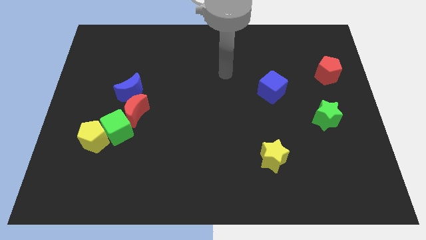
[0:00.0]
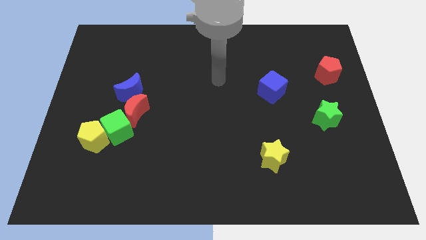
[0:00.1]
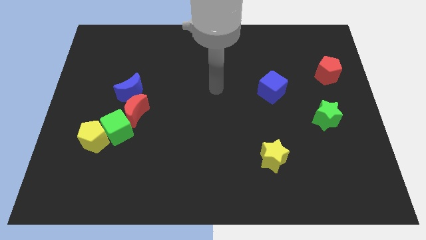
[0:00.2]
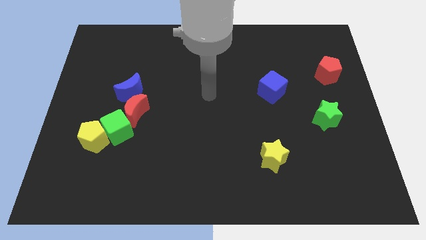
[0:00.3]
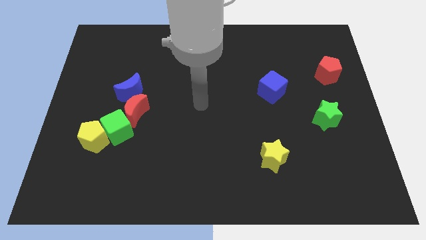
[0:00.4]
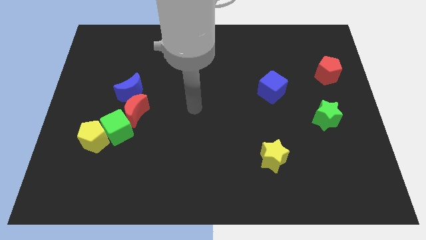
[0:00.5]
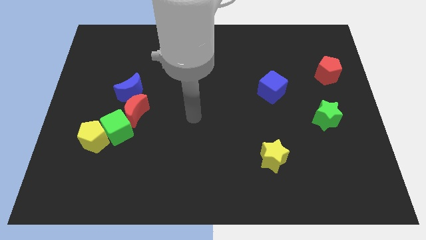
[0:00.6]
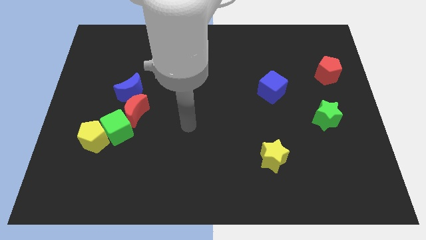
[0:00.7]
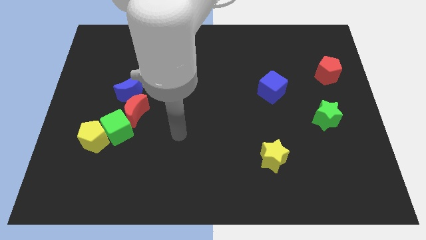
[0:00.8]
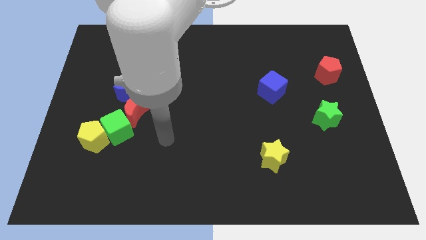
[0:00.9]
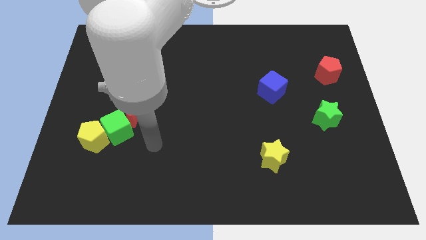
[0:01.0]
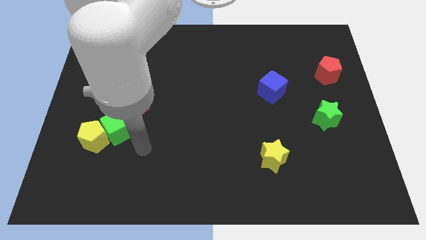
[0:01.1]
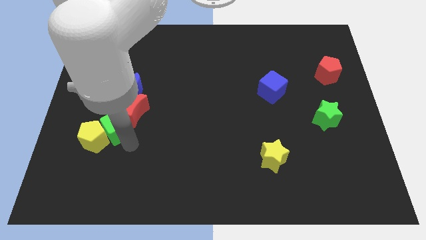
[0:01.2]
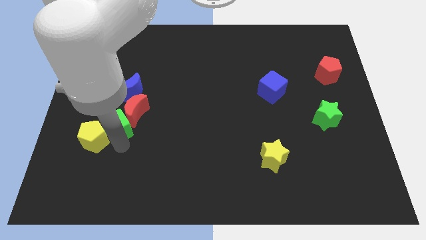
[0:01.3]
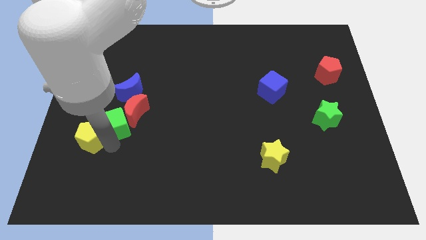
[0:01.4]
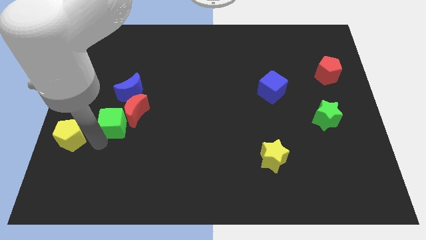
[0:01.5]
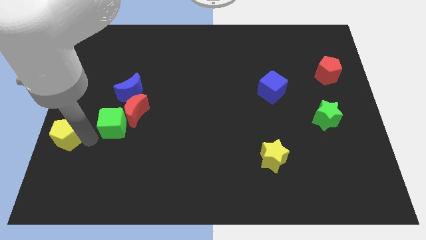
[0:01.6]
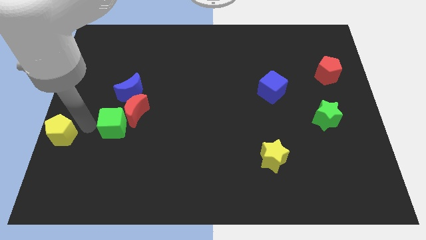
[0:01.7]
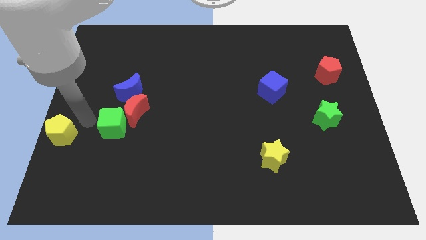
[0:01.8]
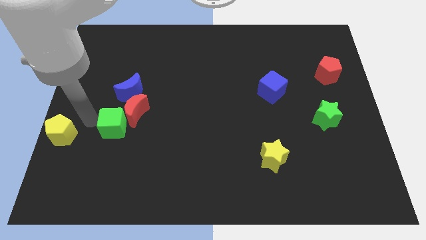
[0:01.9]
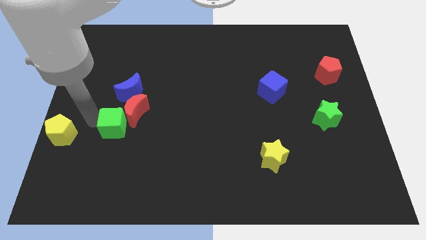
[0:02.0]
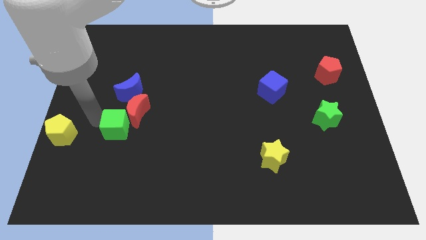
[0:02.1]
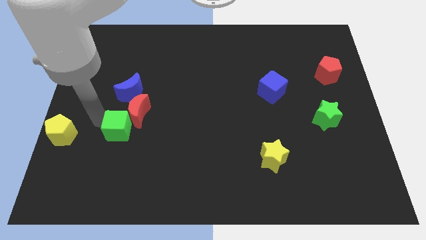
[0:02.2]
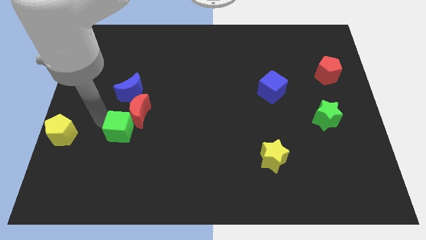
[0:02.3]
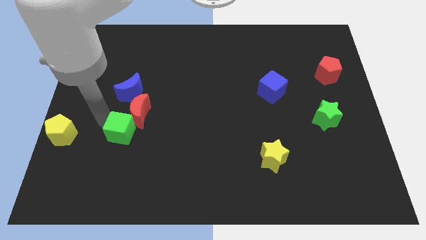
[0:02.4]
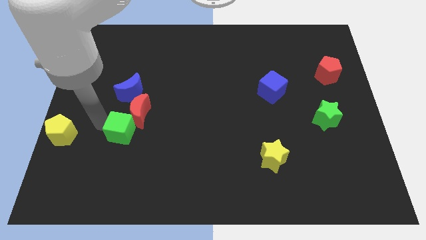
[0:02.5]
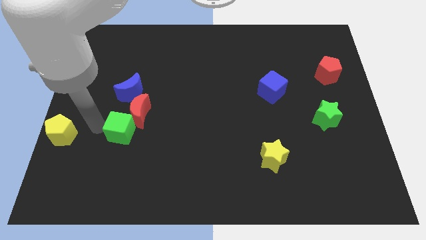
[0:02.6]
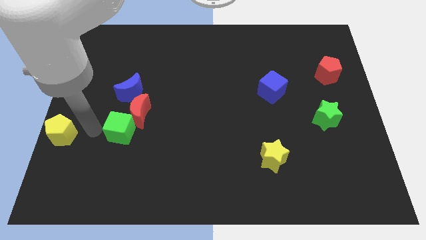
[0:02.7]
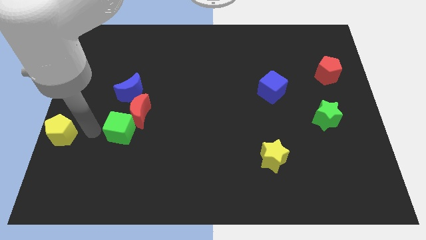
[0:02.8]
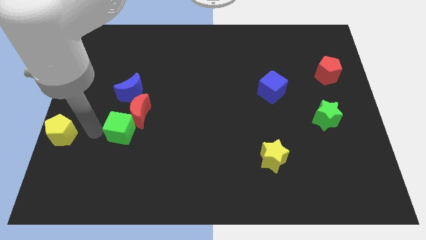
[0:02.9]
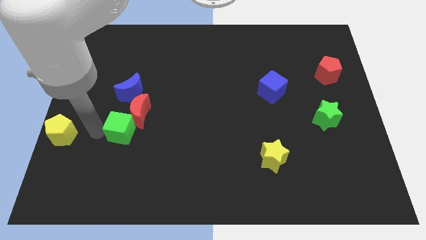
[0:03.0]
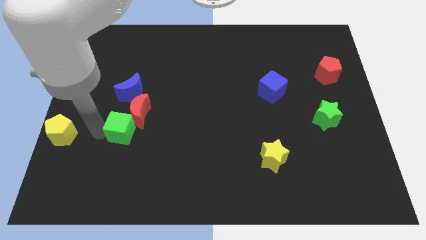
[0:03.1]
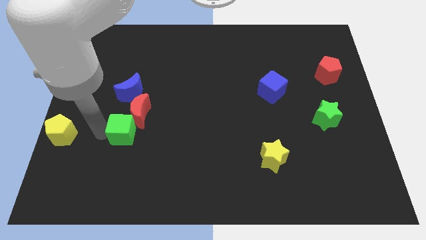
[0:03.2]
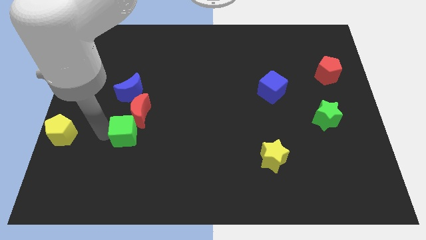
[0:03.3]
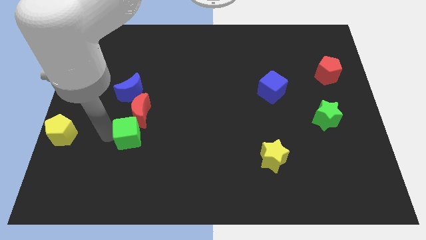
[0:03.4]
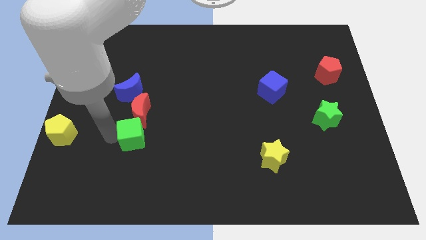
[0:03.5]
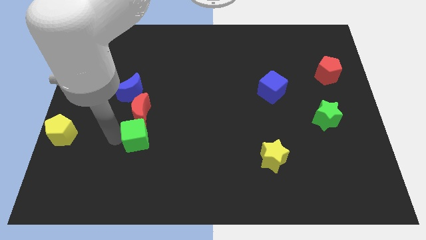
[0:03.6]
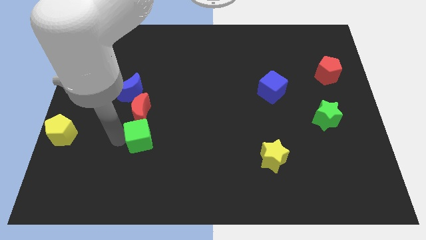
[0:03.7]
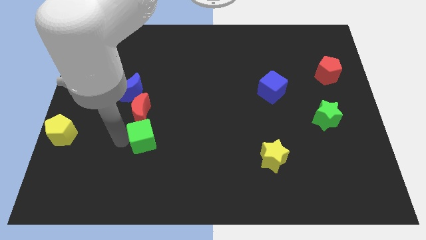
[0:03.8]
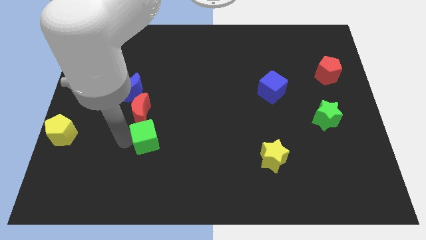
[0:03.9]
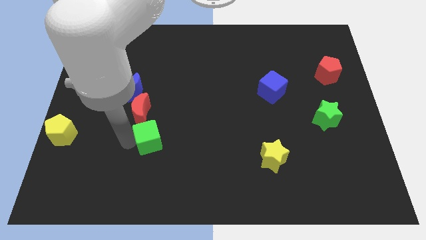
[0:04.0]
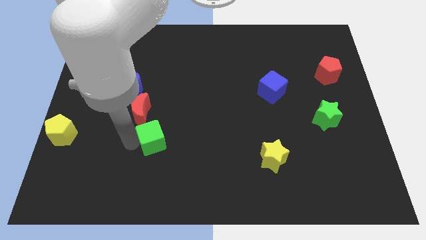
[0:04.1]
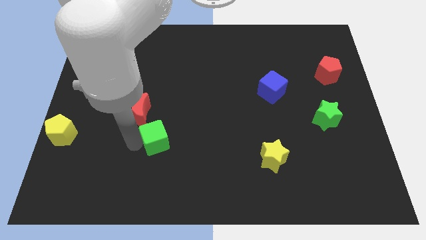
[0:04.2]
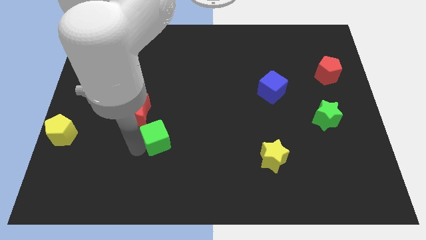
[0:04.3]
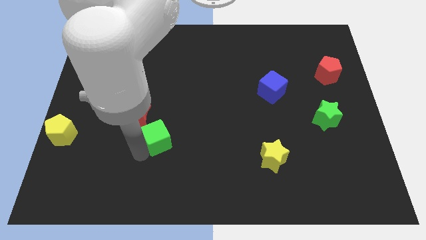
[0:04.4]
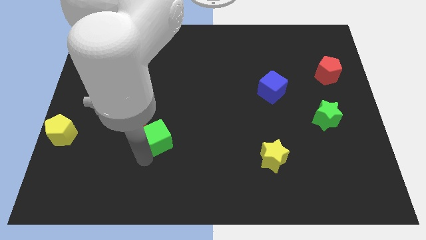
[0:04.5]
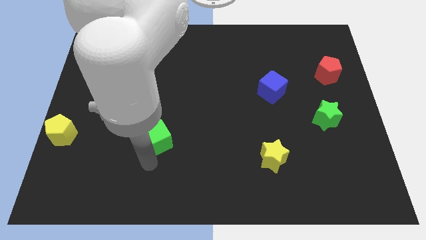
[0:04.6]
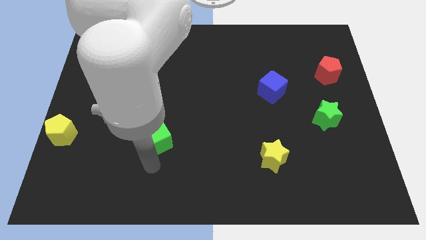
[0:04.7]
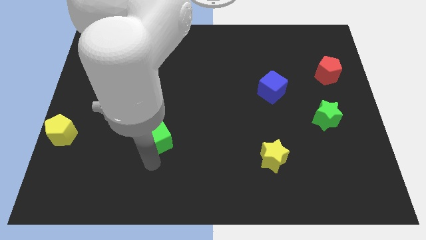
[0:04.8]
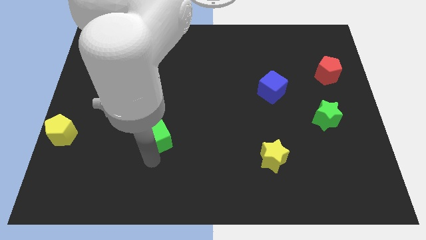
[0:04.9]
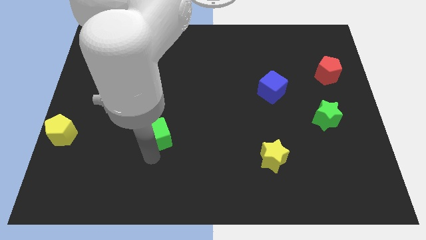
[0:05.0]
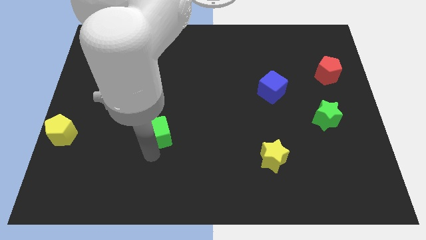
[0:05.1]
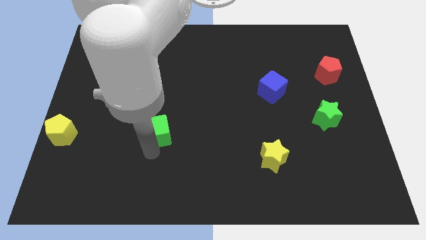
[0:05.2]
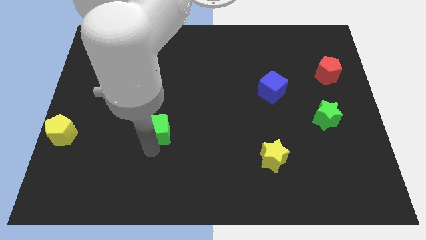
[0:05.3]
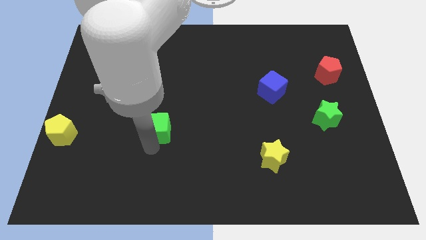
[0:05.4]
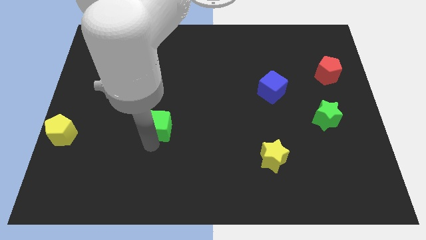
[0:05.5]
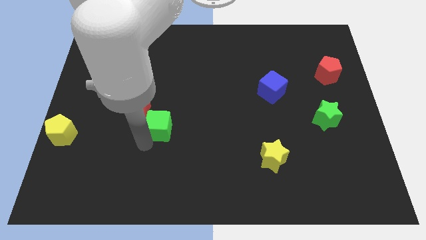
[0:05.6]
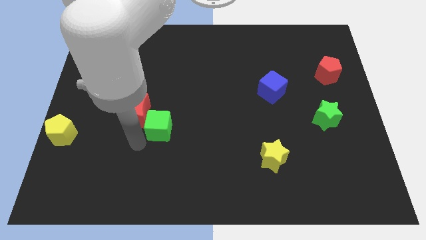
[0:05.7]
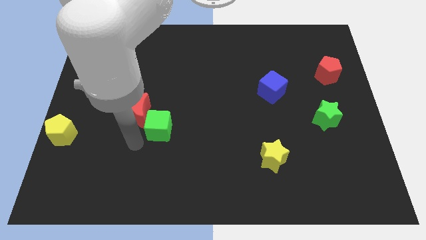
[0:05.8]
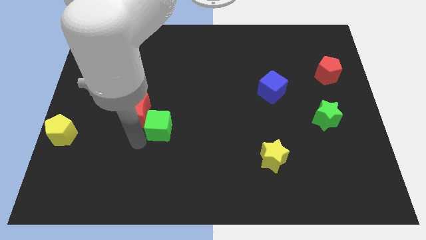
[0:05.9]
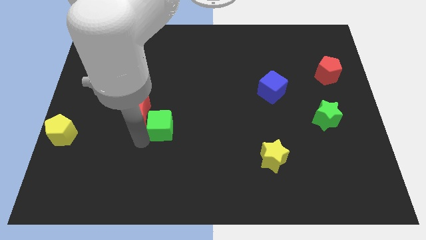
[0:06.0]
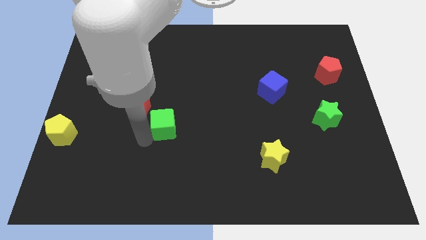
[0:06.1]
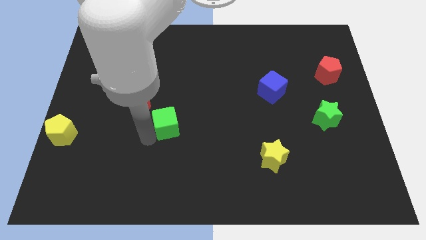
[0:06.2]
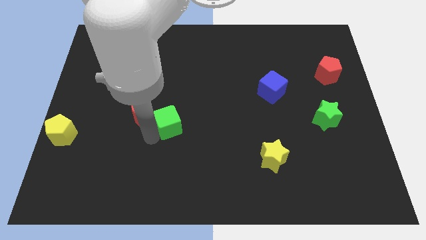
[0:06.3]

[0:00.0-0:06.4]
move the green cube to the center of the board
